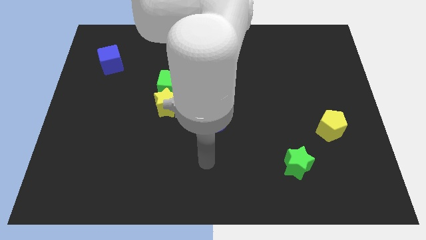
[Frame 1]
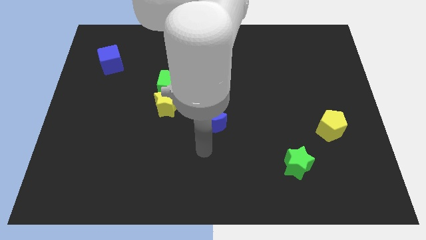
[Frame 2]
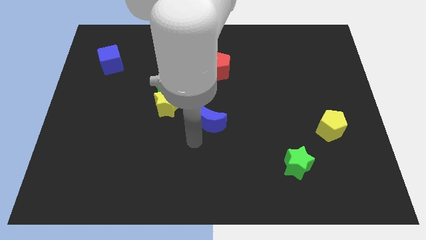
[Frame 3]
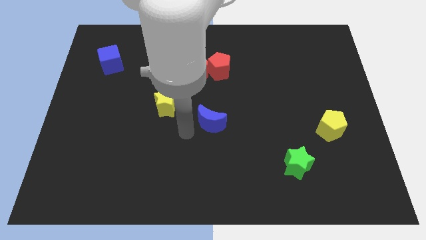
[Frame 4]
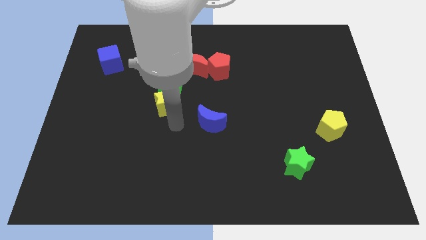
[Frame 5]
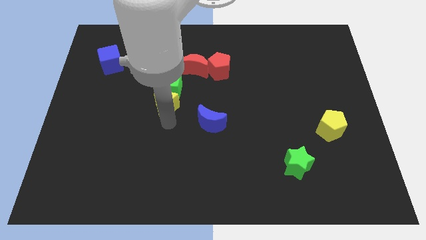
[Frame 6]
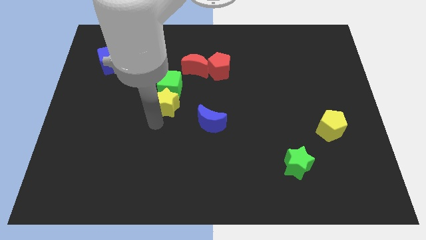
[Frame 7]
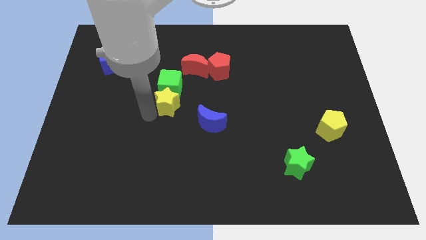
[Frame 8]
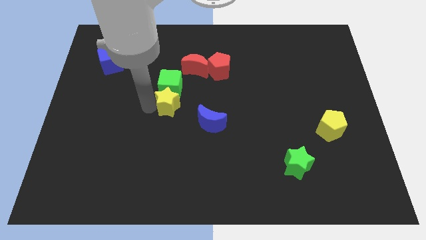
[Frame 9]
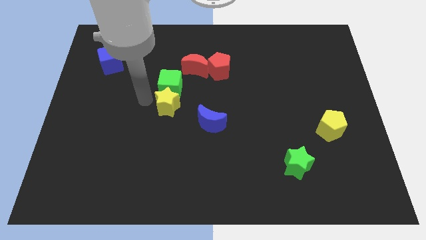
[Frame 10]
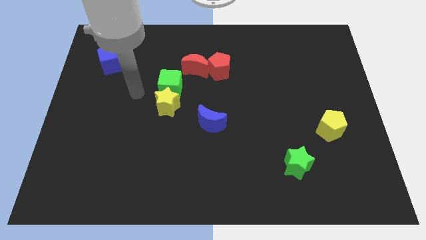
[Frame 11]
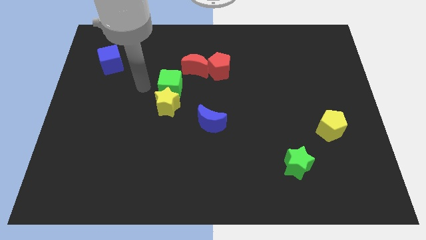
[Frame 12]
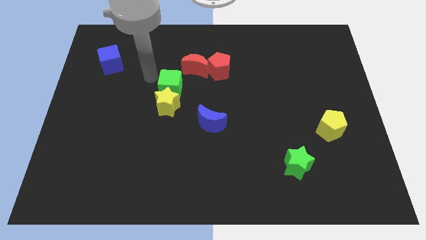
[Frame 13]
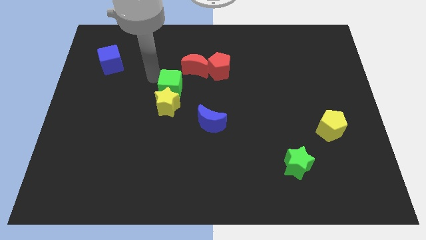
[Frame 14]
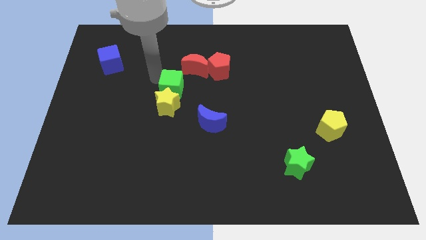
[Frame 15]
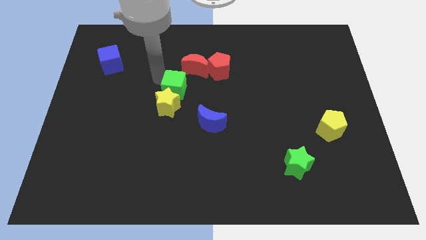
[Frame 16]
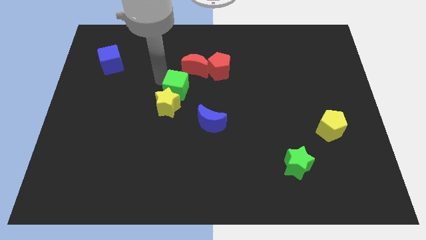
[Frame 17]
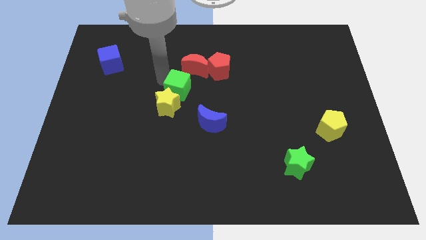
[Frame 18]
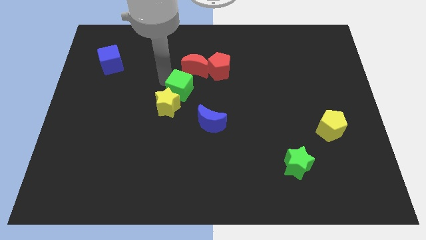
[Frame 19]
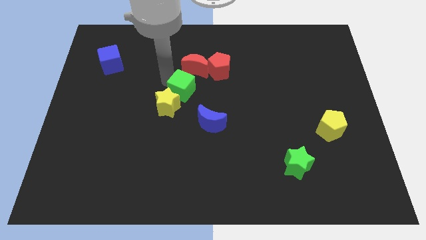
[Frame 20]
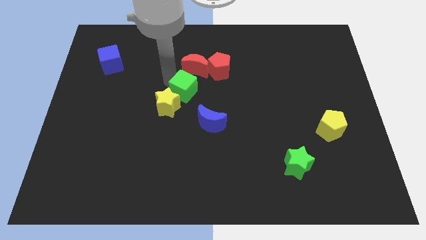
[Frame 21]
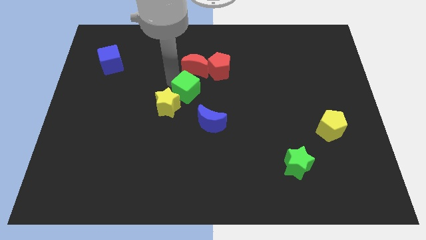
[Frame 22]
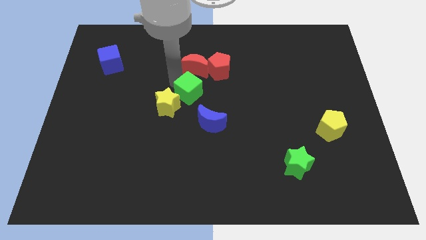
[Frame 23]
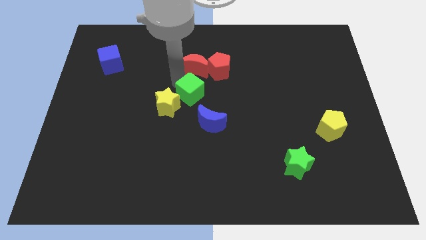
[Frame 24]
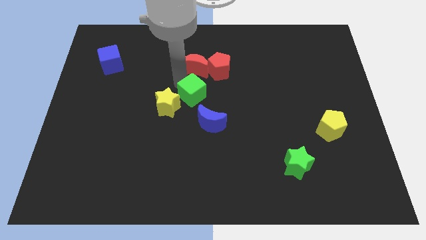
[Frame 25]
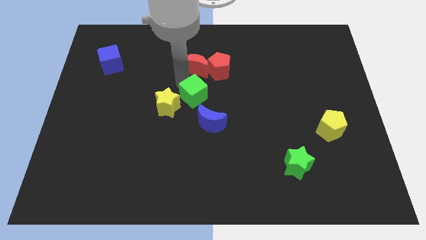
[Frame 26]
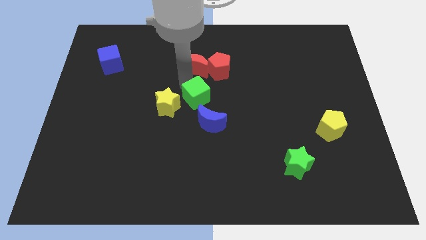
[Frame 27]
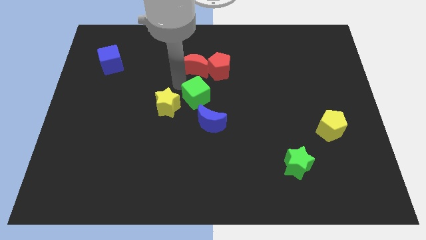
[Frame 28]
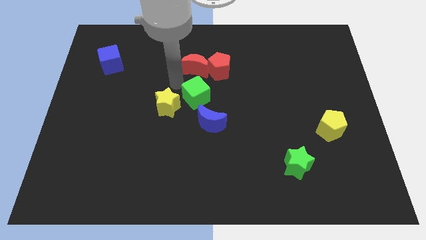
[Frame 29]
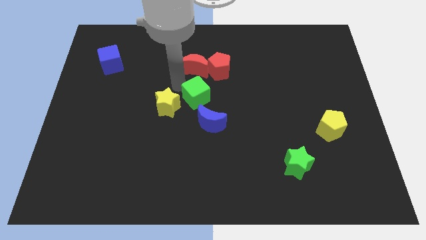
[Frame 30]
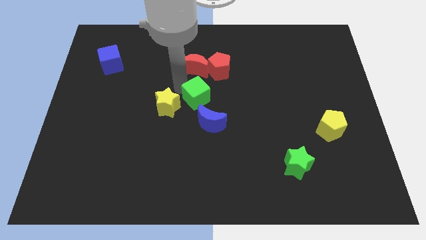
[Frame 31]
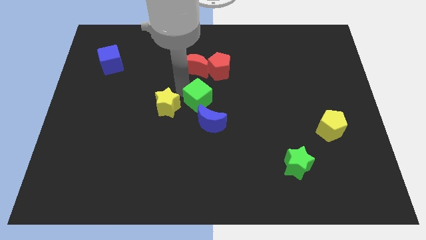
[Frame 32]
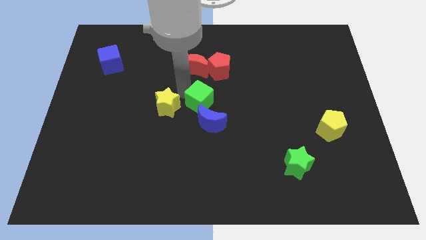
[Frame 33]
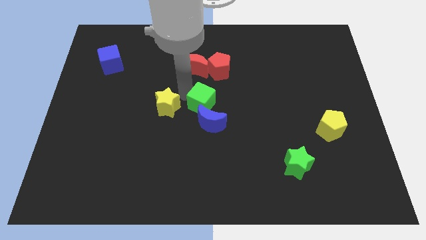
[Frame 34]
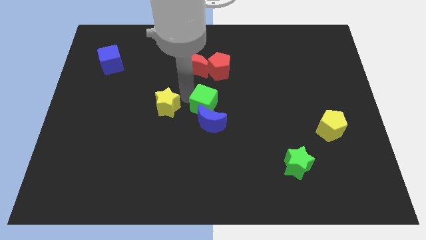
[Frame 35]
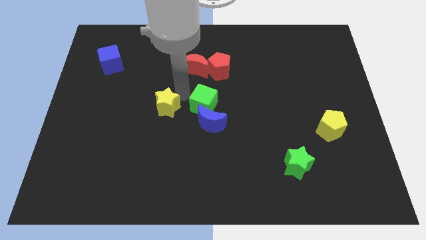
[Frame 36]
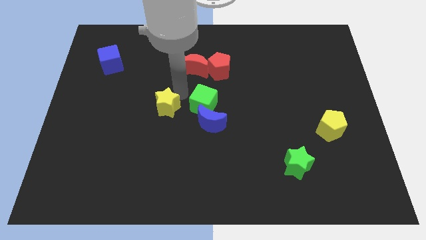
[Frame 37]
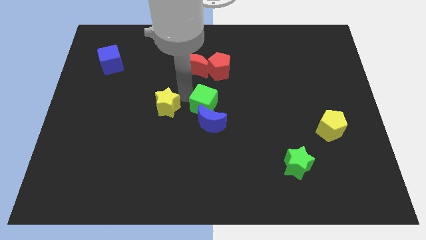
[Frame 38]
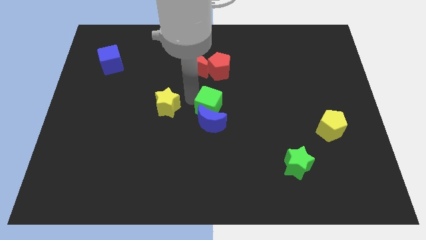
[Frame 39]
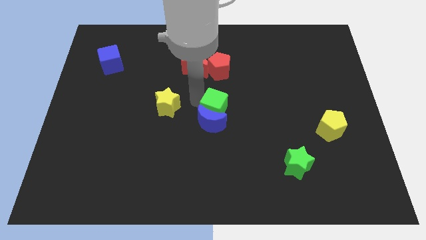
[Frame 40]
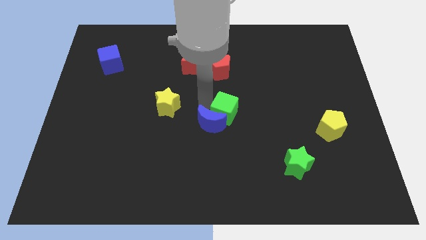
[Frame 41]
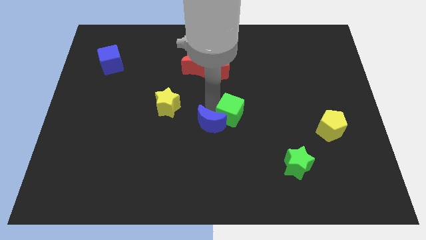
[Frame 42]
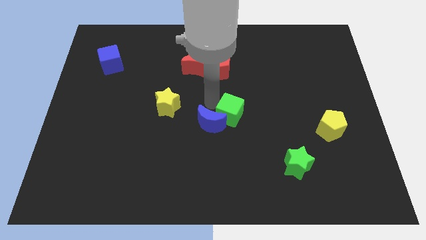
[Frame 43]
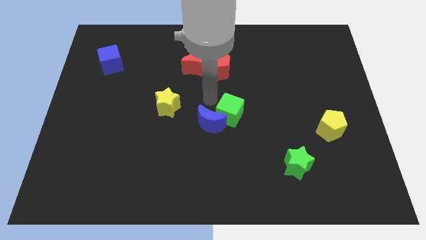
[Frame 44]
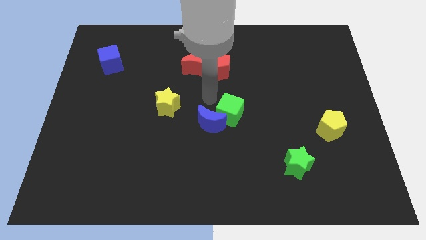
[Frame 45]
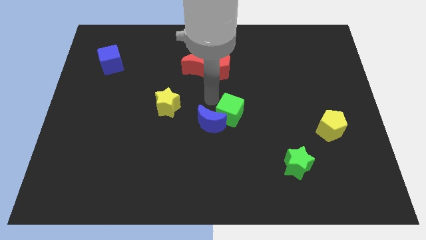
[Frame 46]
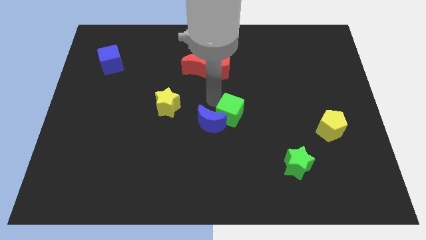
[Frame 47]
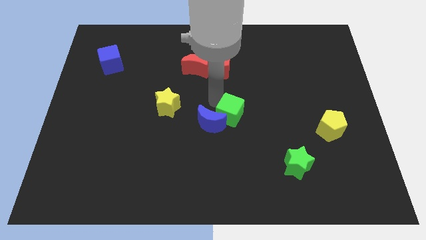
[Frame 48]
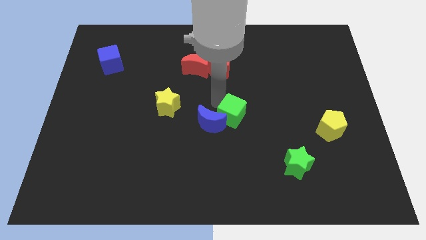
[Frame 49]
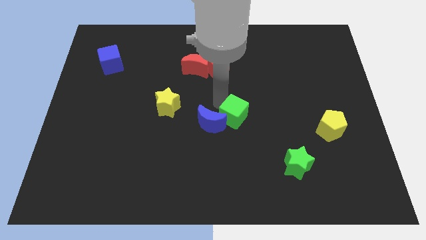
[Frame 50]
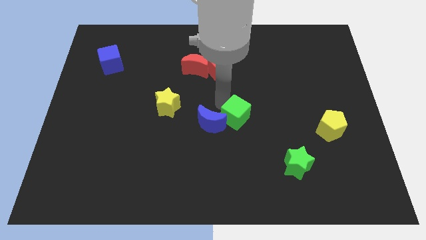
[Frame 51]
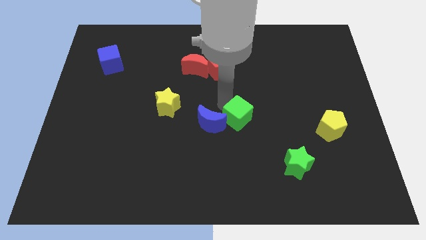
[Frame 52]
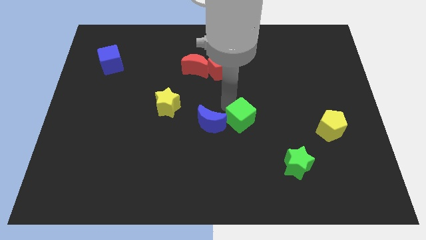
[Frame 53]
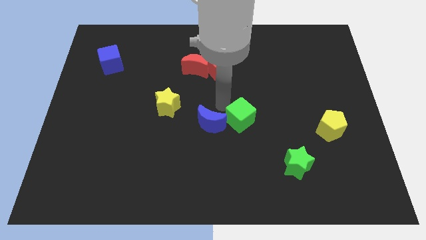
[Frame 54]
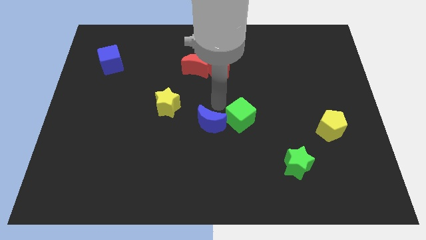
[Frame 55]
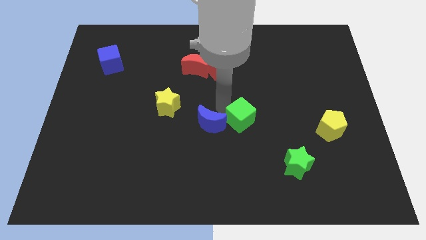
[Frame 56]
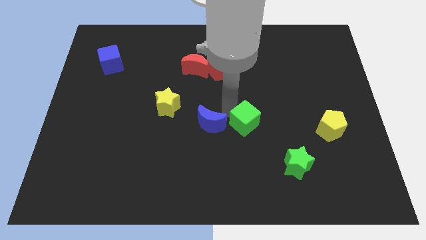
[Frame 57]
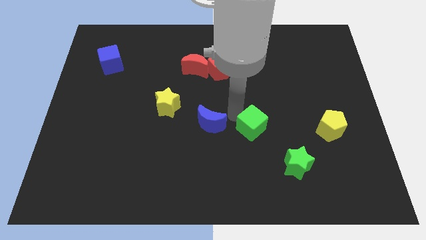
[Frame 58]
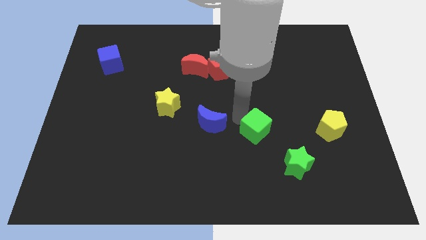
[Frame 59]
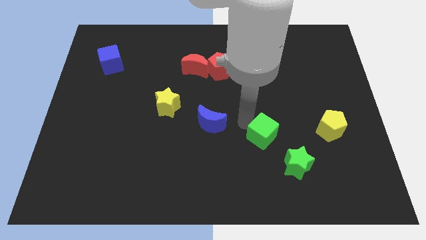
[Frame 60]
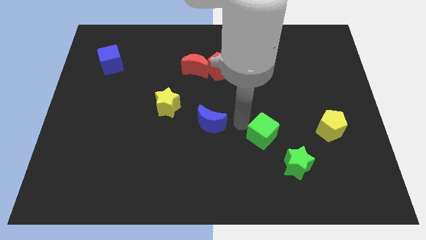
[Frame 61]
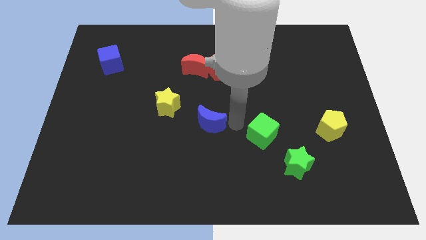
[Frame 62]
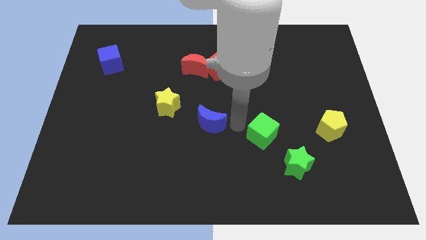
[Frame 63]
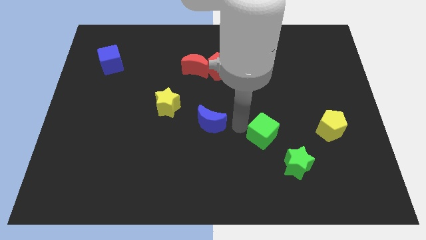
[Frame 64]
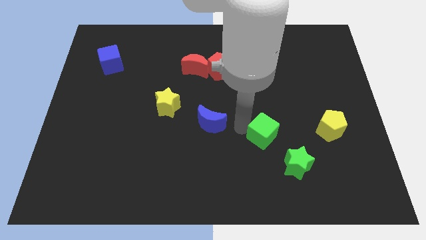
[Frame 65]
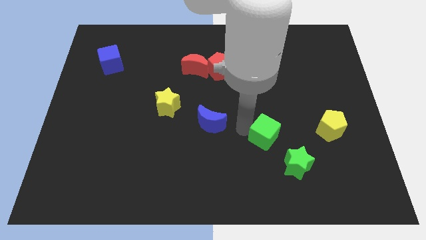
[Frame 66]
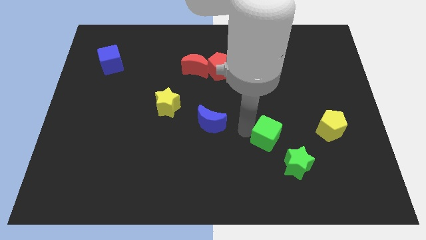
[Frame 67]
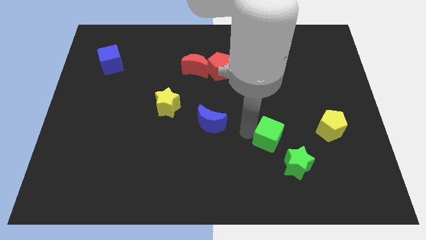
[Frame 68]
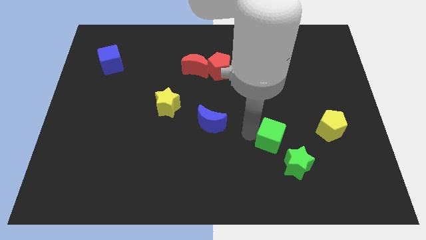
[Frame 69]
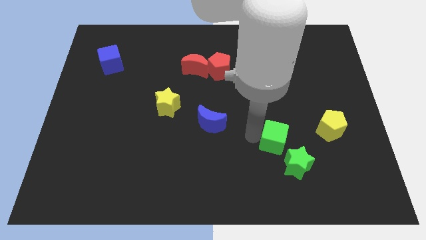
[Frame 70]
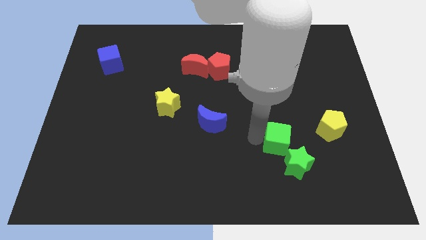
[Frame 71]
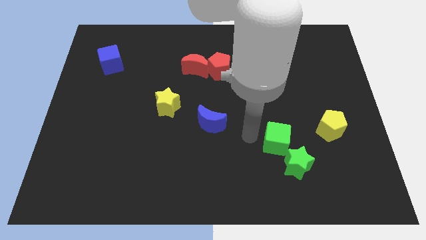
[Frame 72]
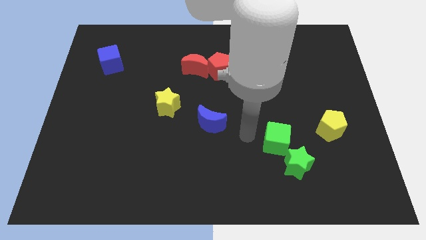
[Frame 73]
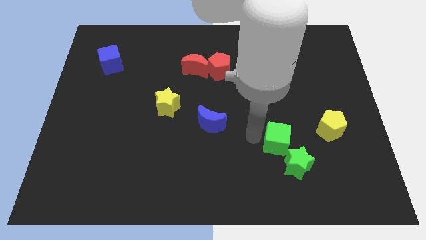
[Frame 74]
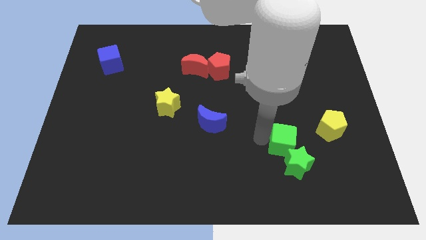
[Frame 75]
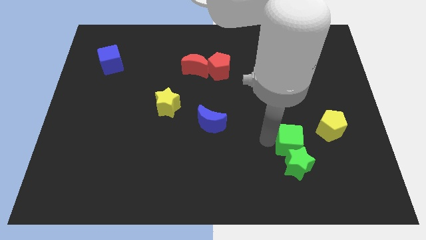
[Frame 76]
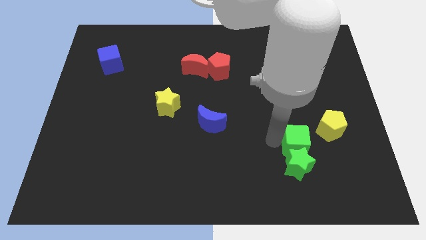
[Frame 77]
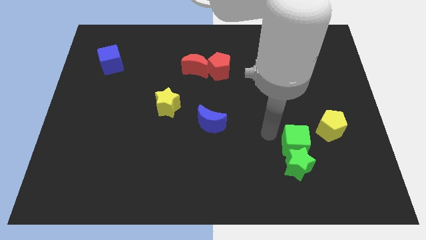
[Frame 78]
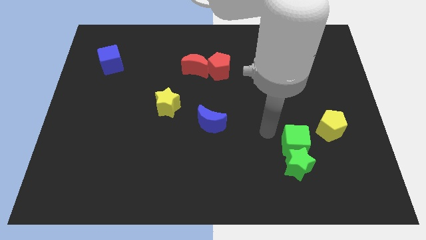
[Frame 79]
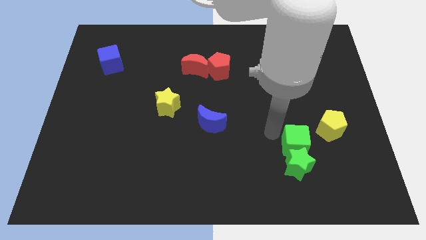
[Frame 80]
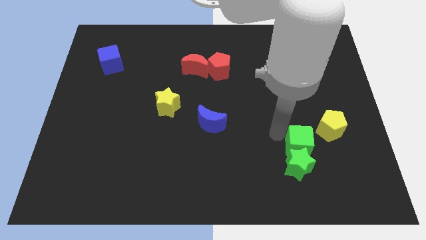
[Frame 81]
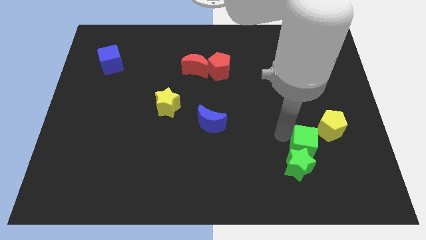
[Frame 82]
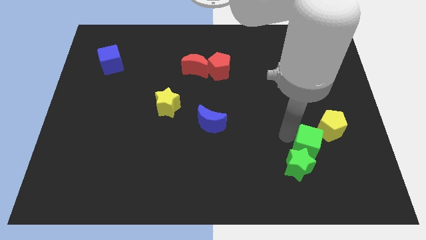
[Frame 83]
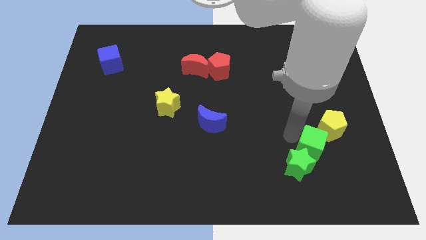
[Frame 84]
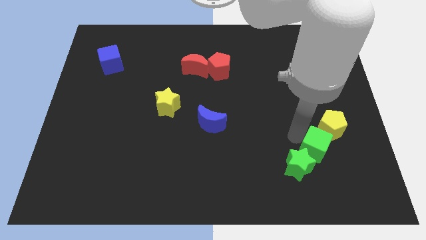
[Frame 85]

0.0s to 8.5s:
move the green cube to the right of the green star
